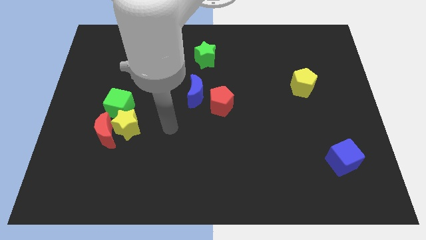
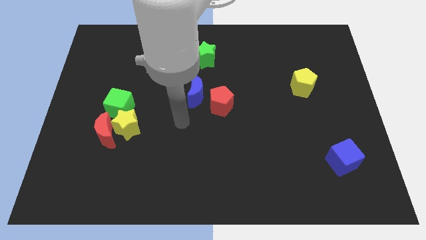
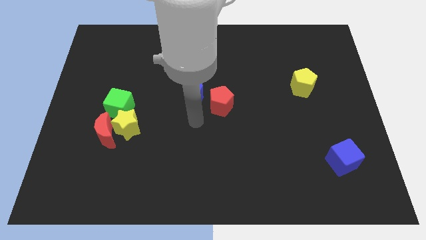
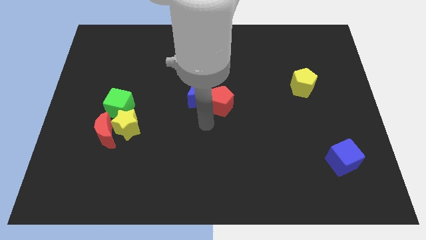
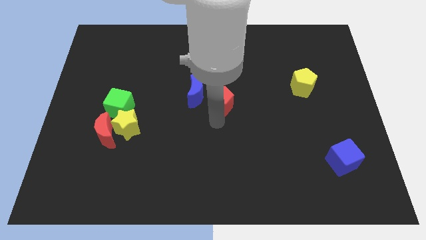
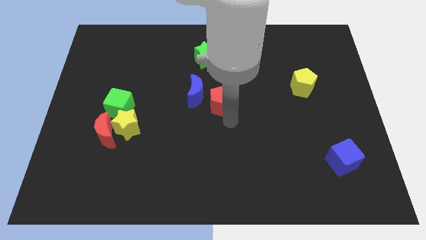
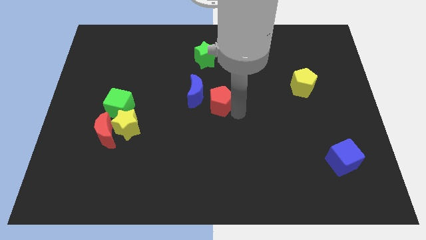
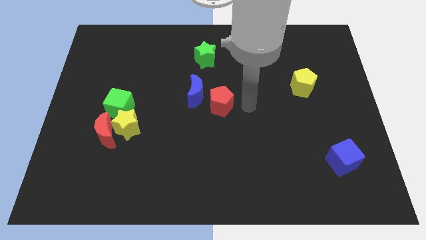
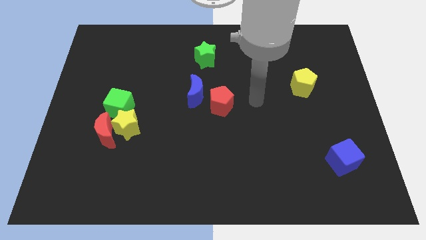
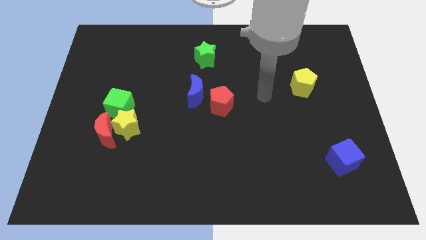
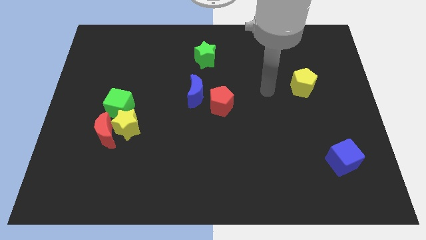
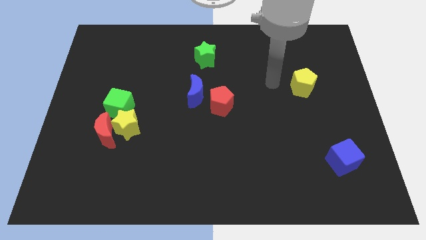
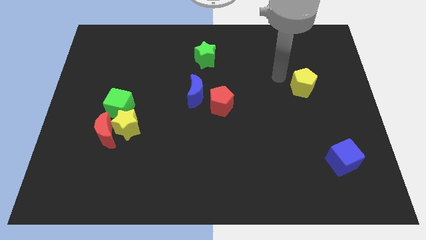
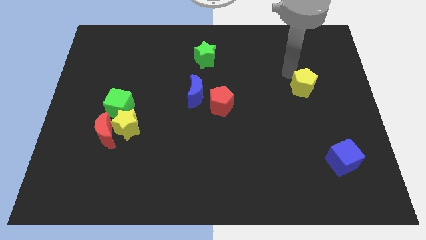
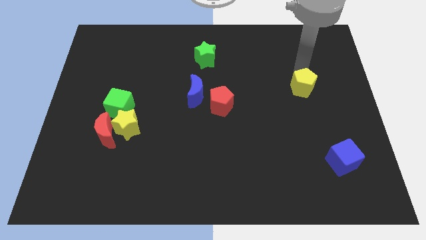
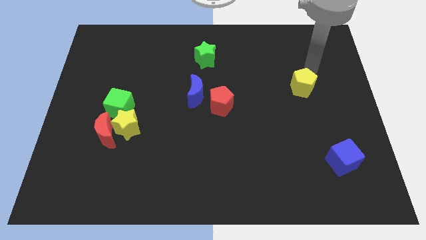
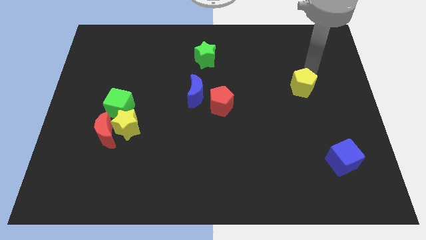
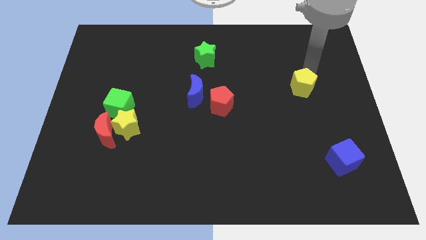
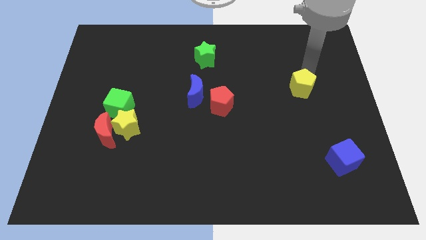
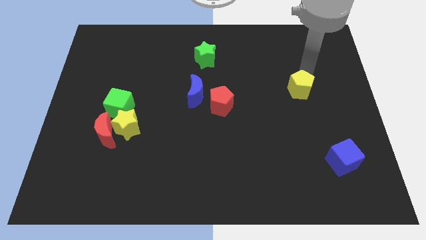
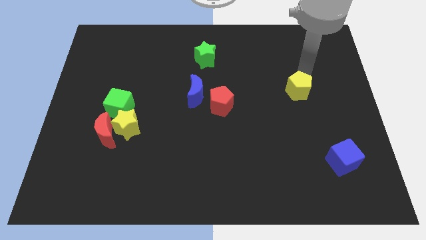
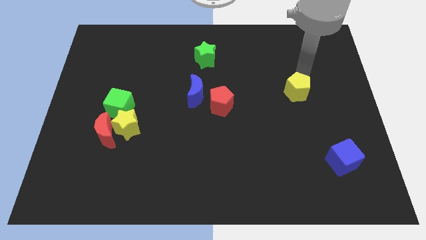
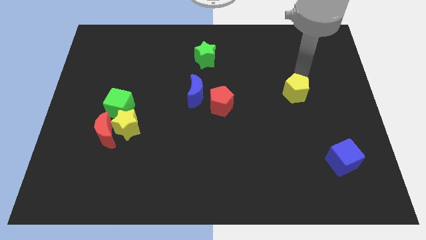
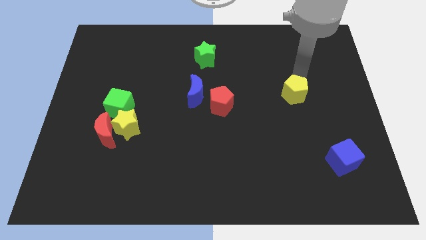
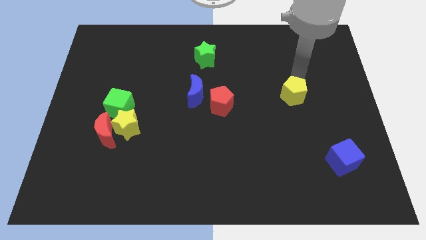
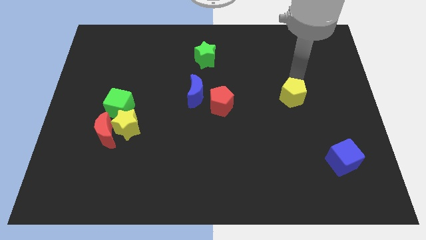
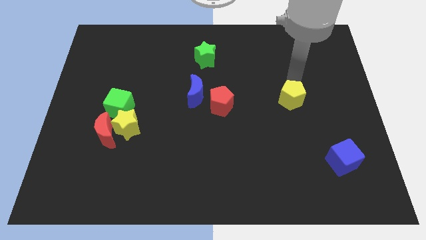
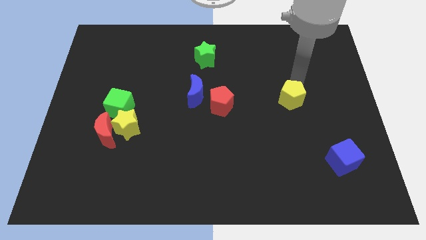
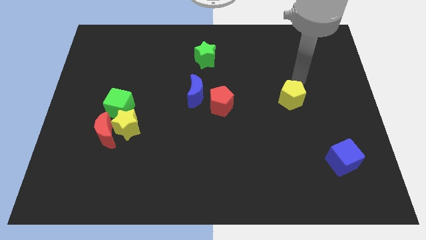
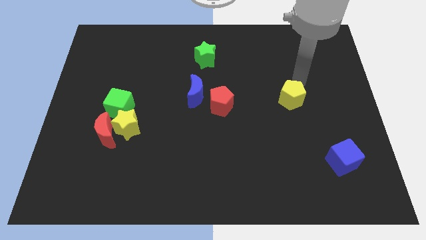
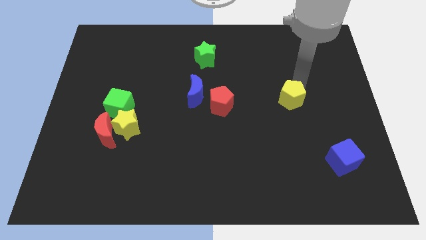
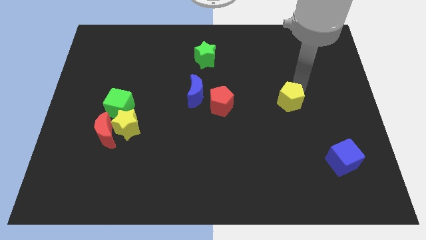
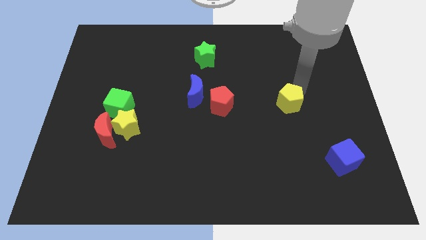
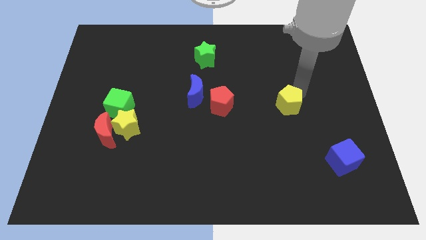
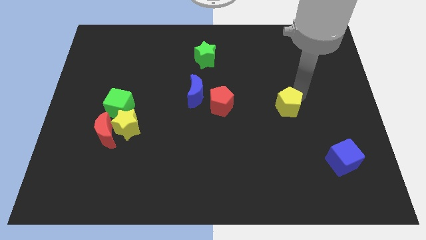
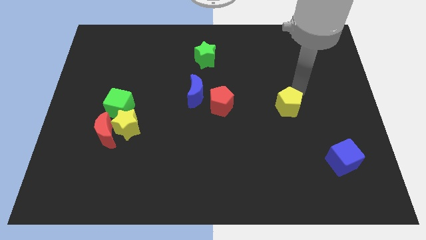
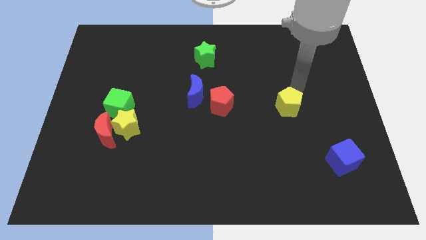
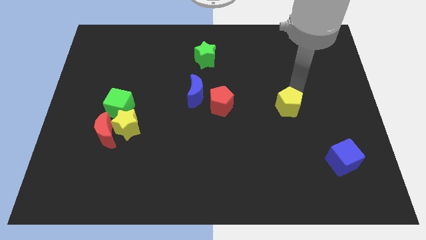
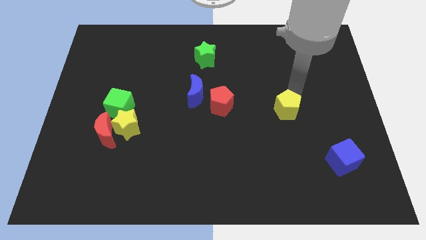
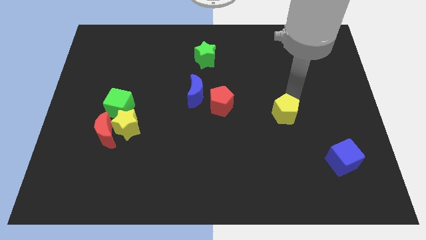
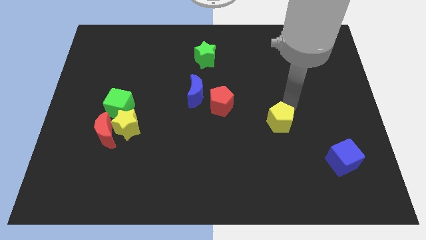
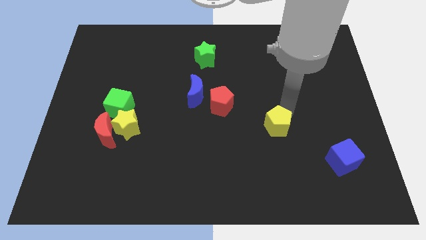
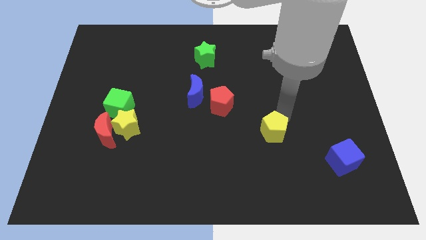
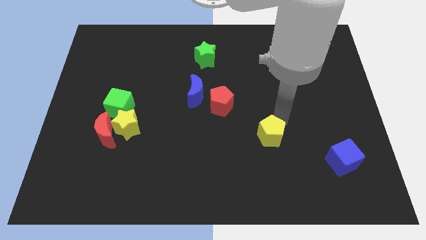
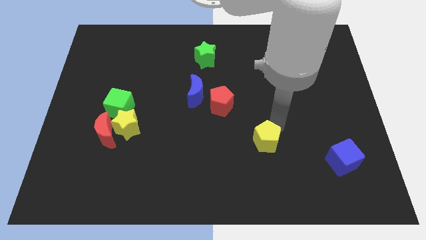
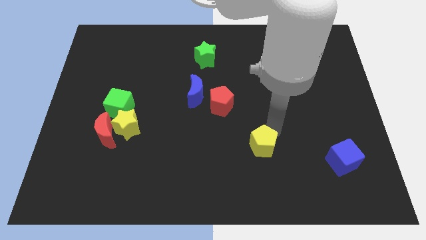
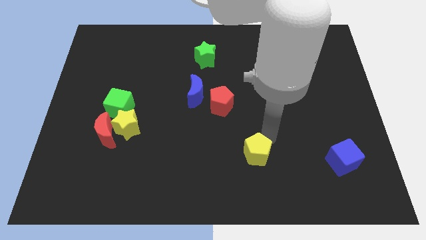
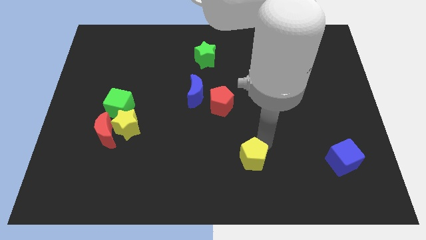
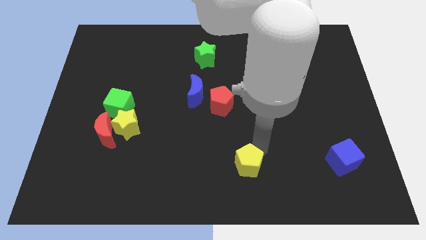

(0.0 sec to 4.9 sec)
push the yellow pentagon to the bottom side

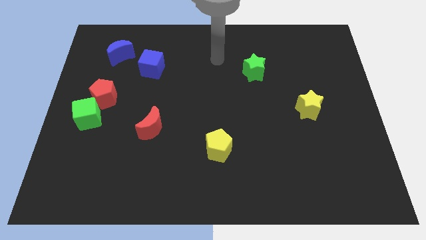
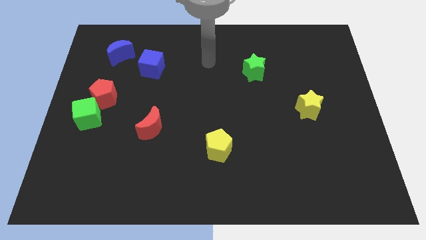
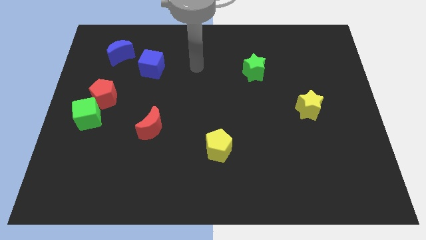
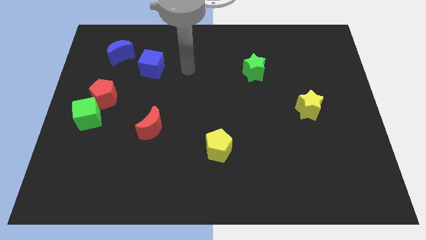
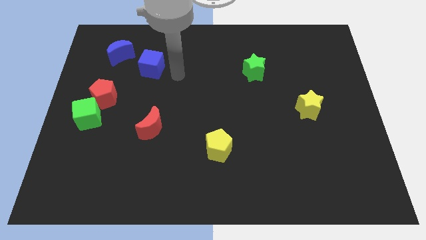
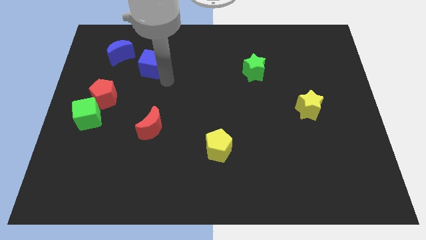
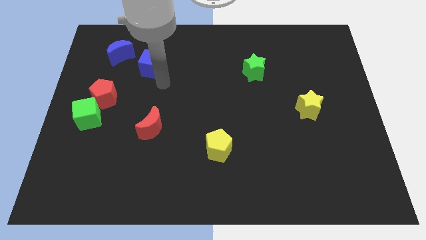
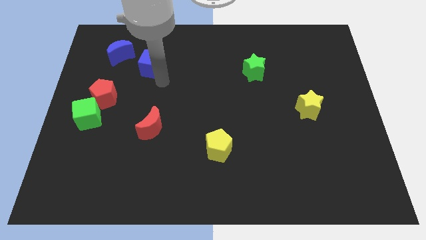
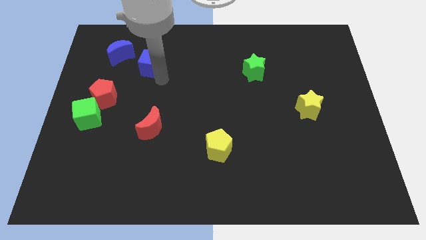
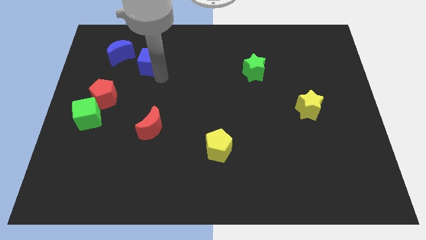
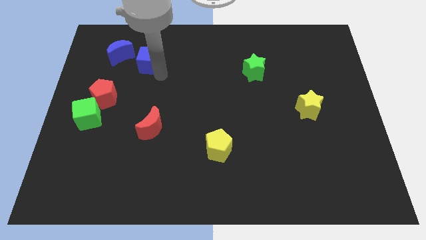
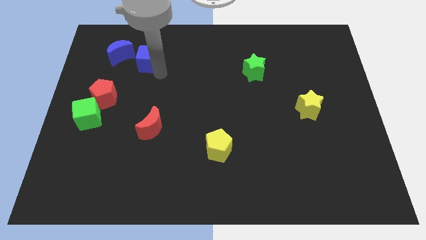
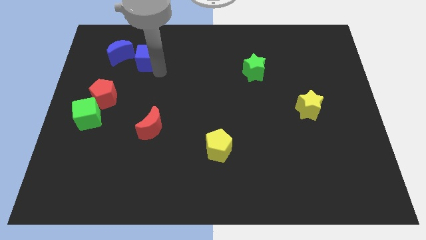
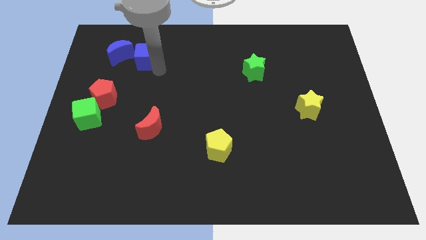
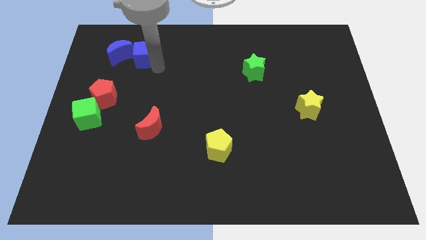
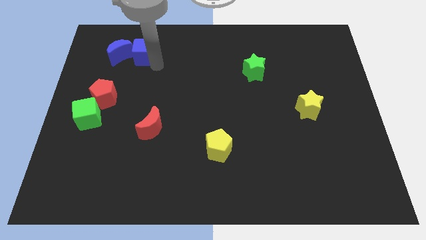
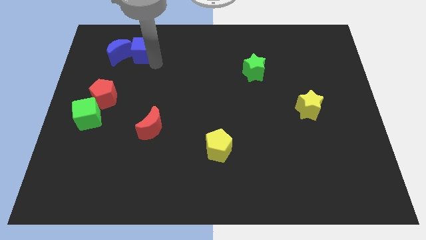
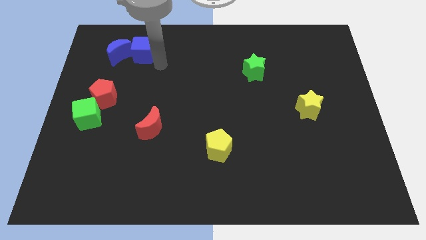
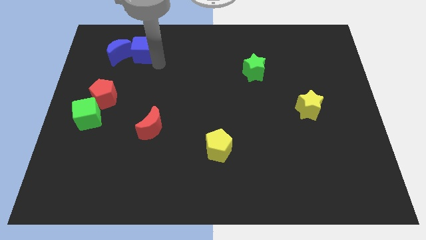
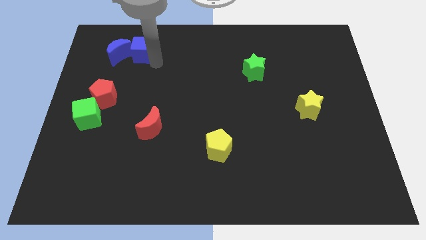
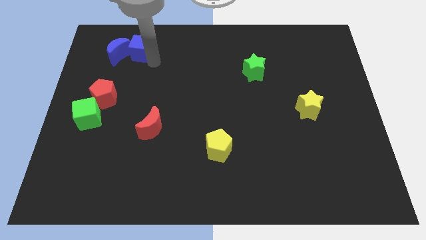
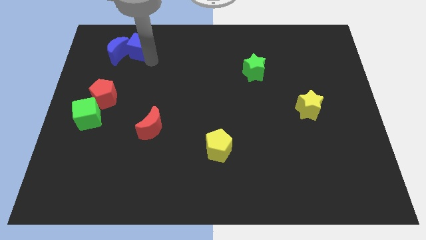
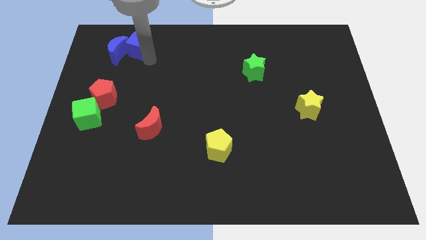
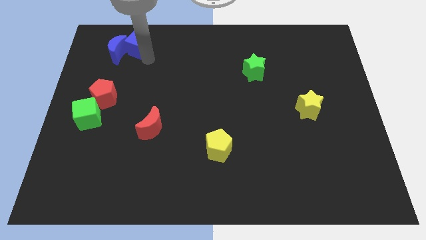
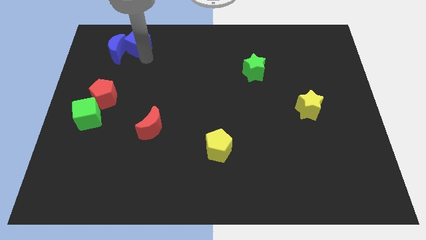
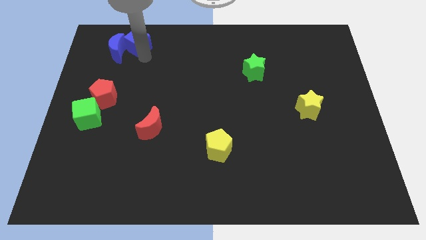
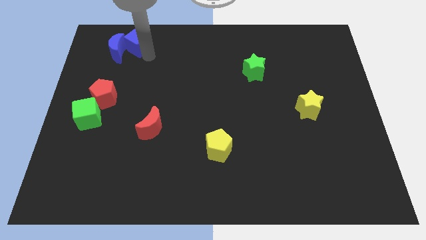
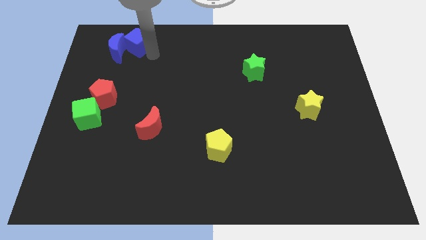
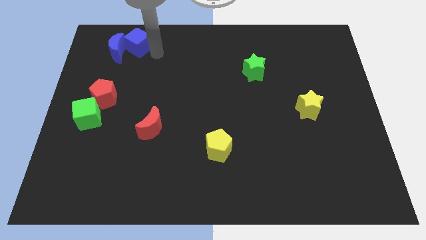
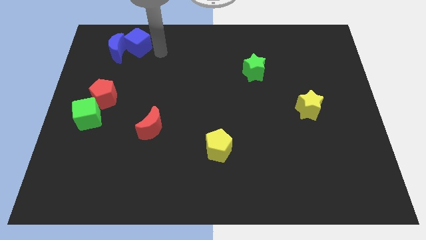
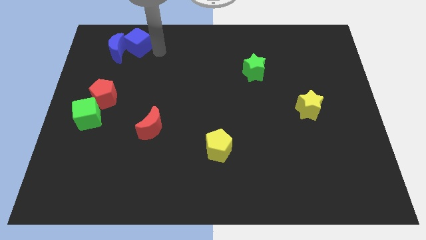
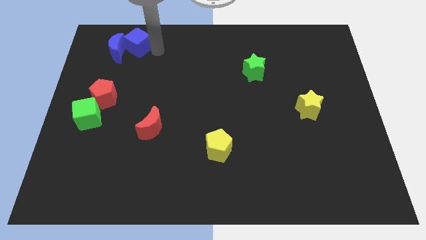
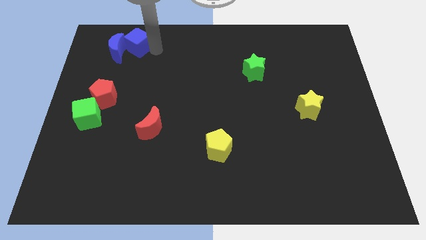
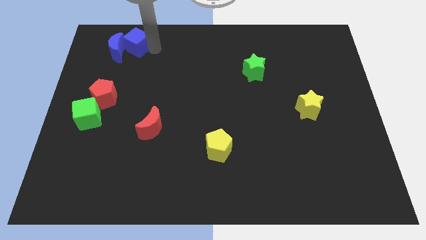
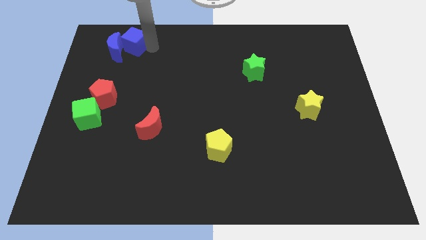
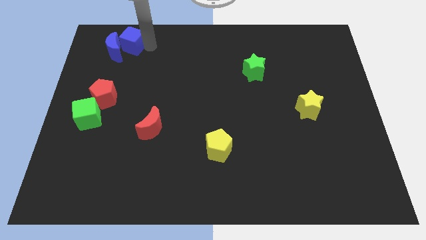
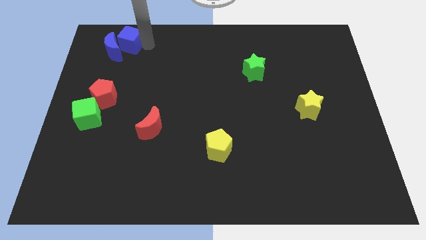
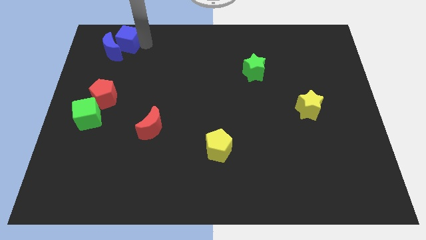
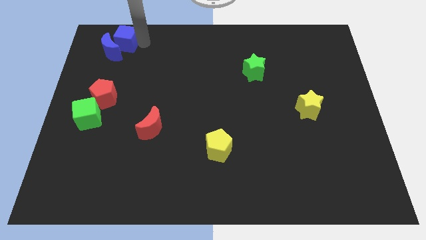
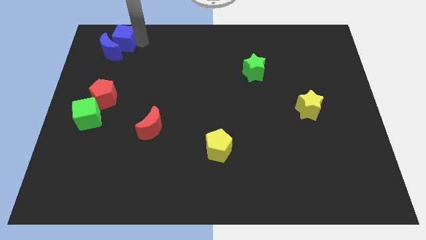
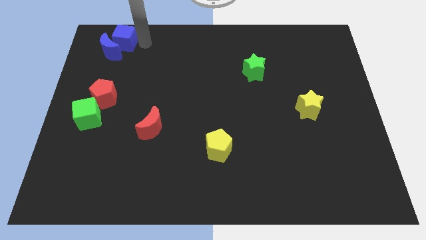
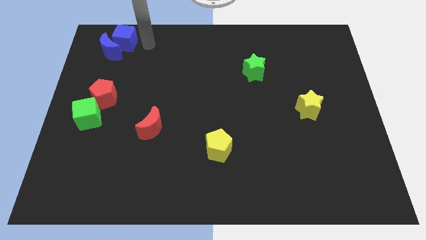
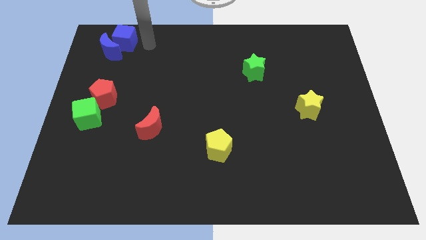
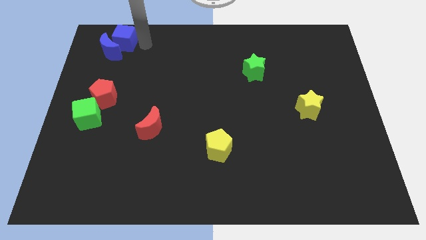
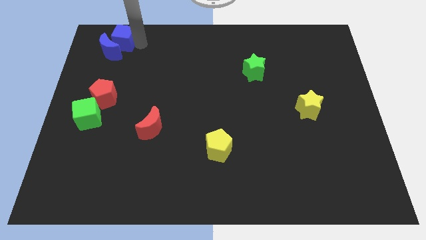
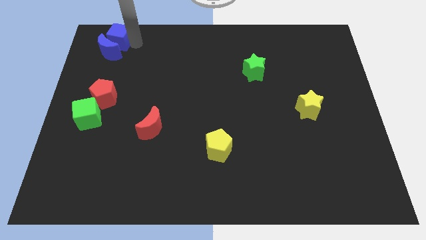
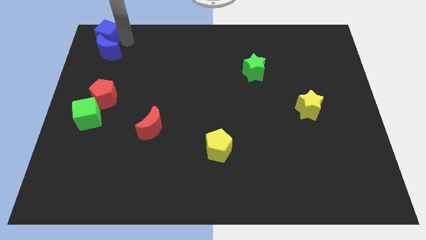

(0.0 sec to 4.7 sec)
push the blue cube to the top left corner
